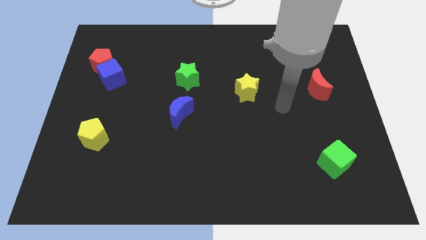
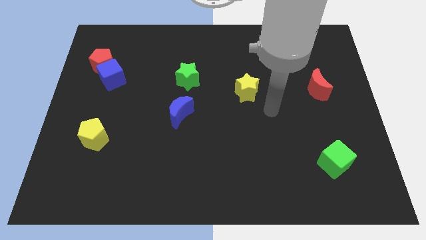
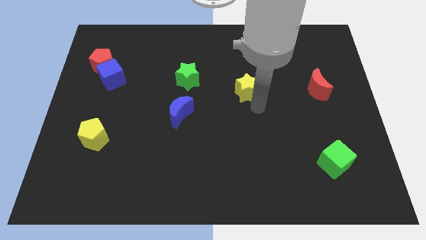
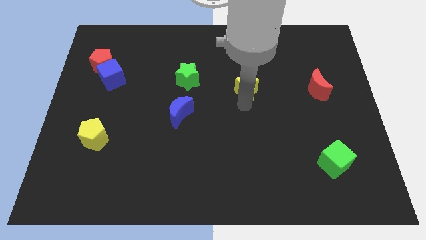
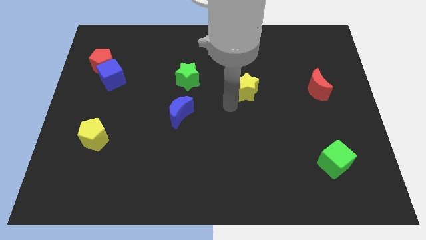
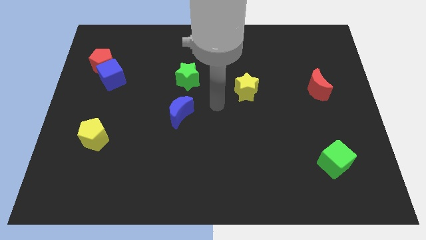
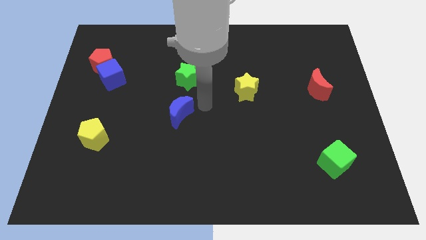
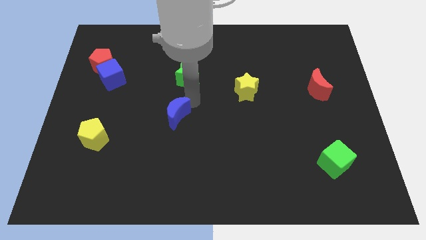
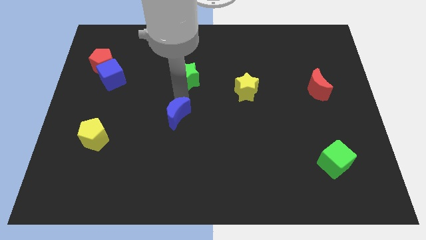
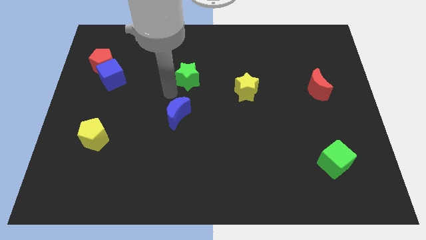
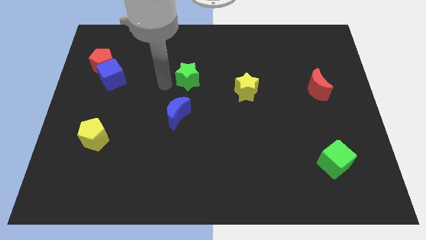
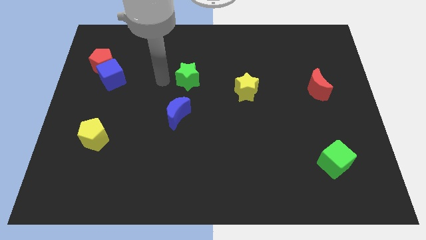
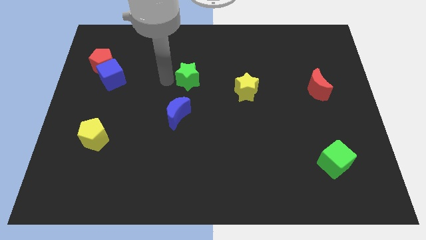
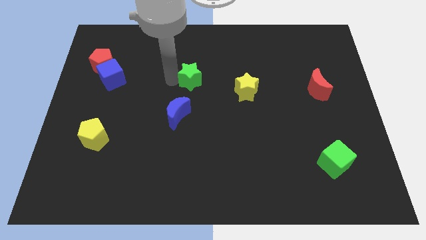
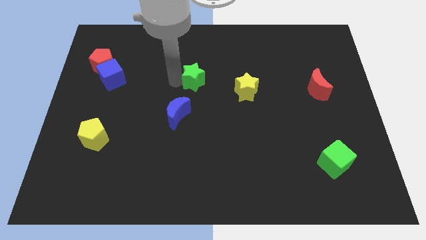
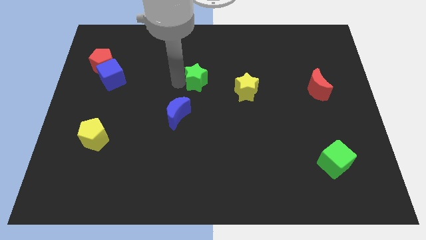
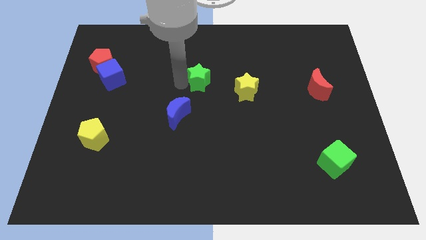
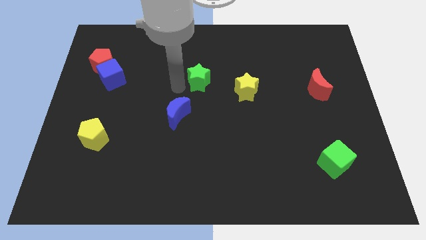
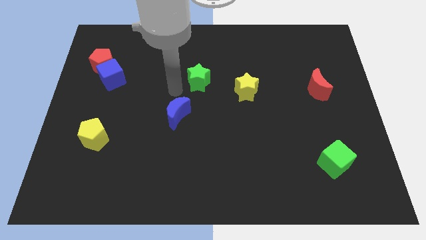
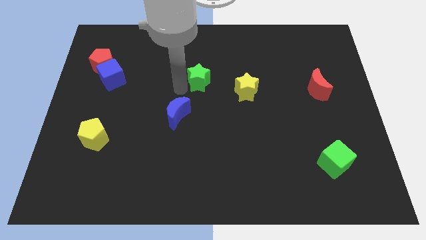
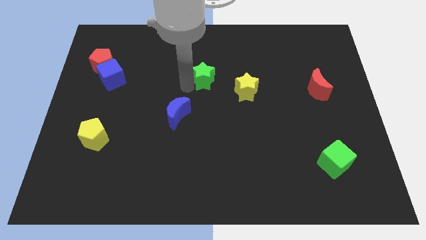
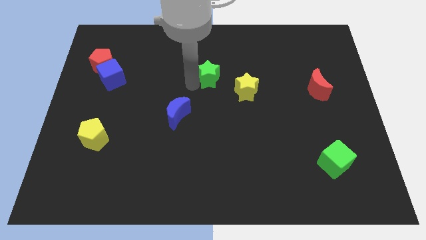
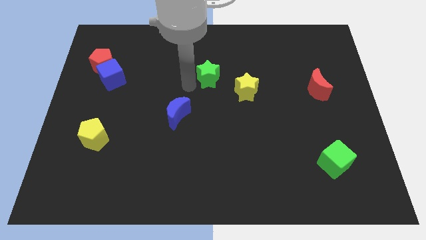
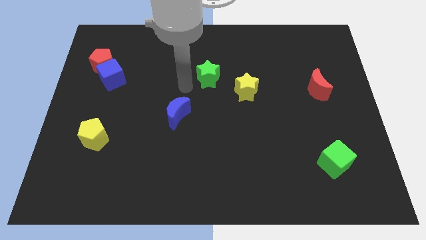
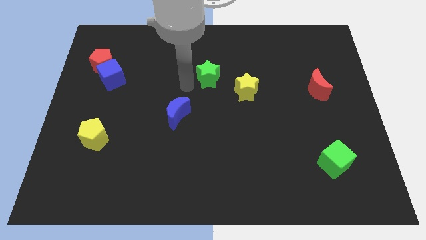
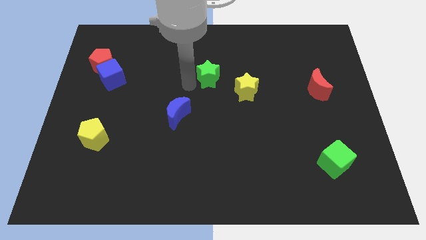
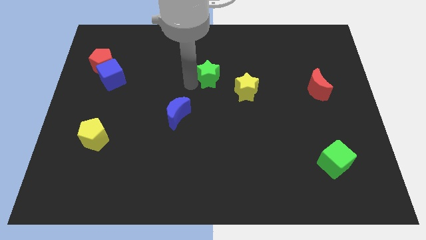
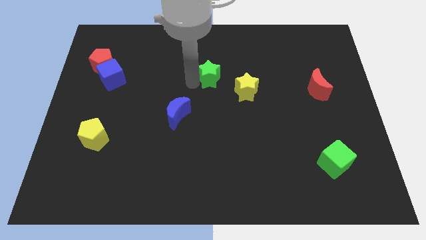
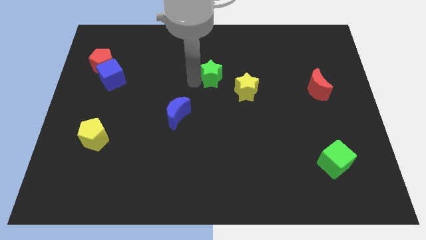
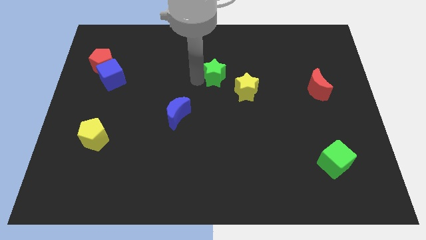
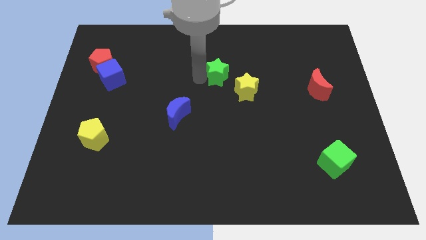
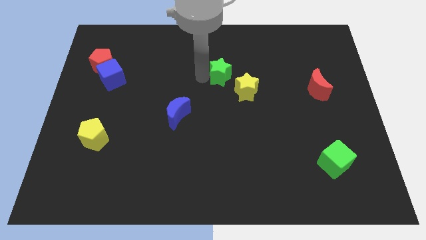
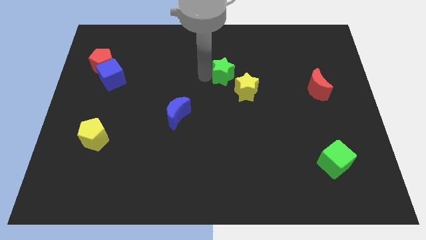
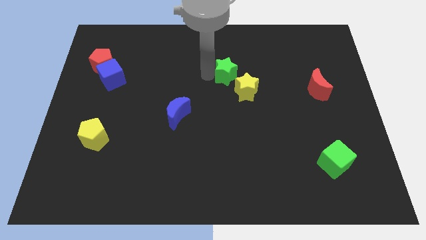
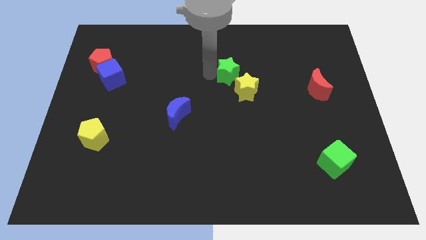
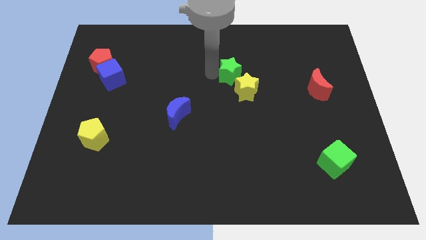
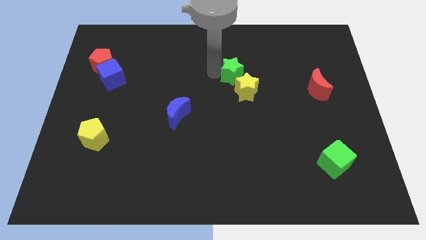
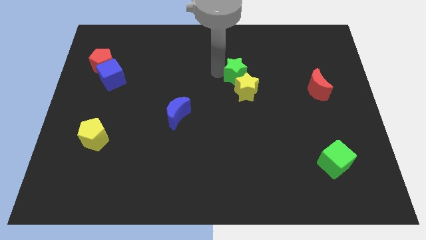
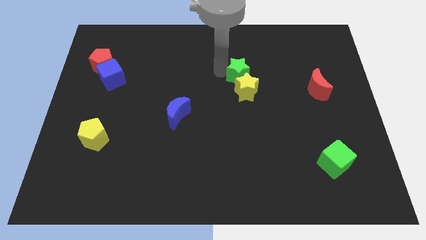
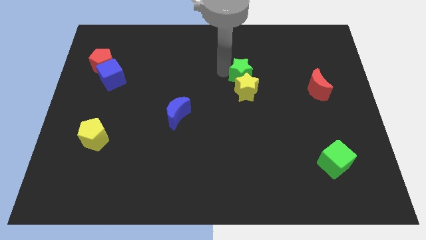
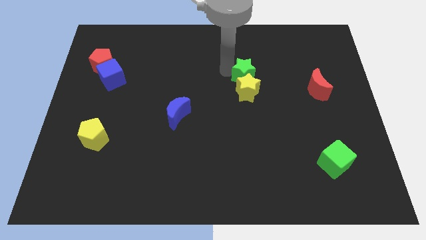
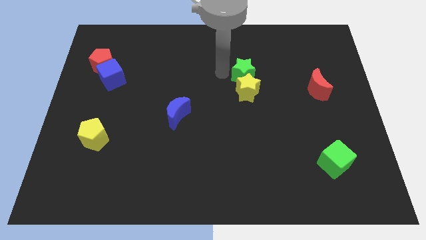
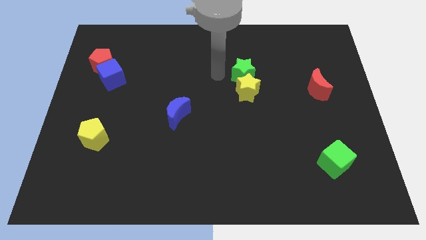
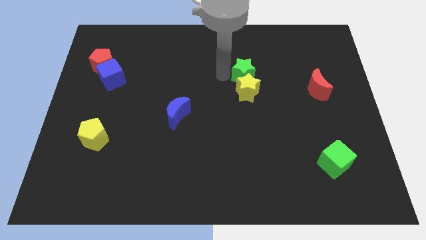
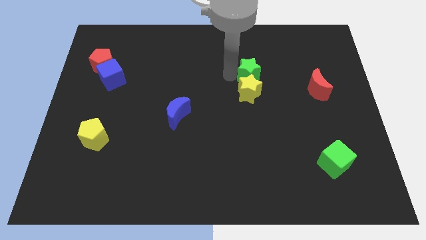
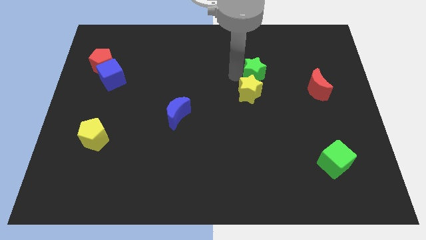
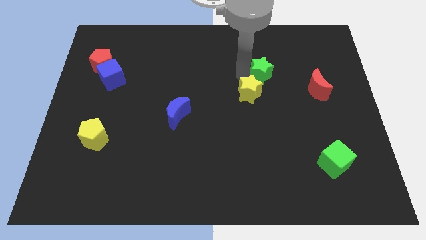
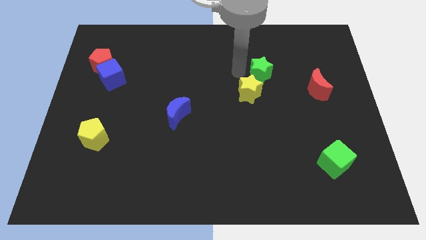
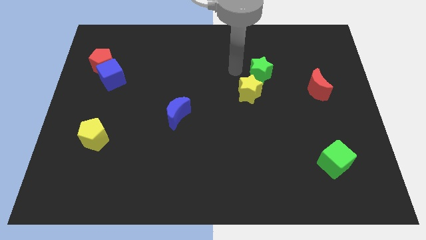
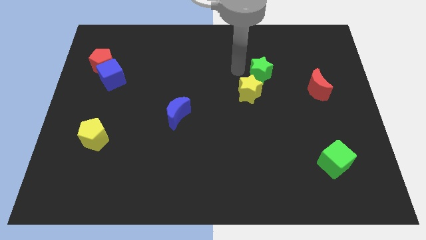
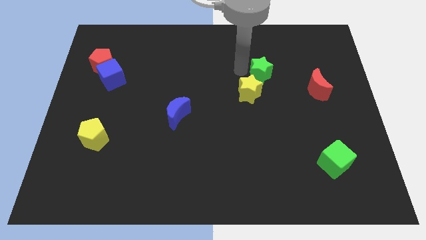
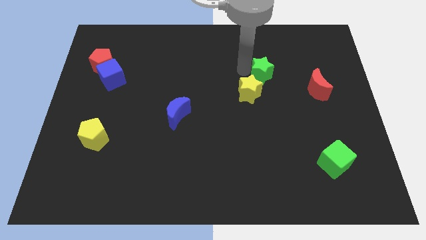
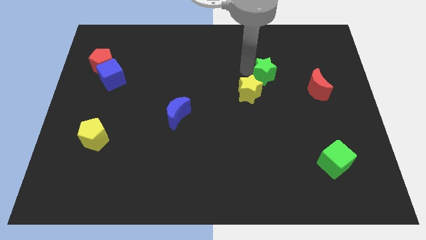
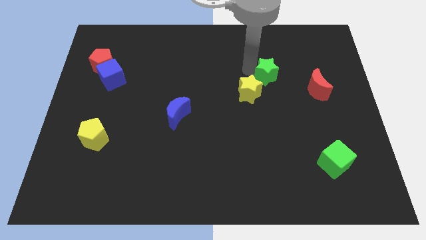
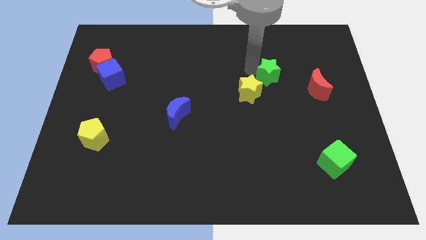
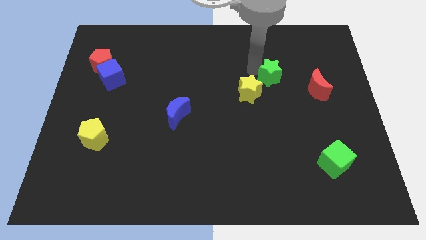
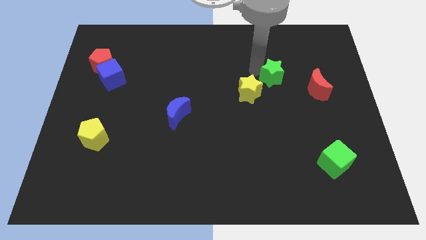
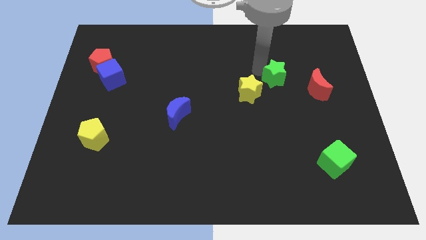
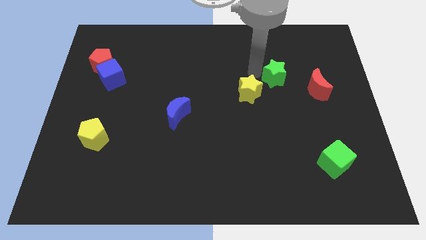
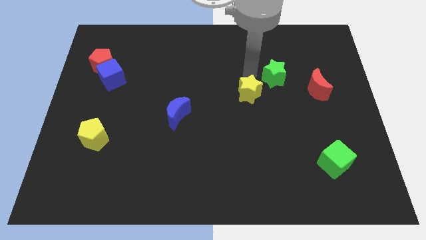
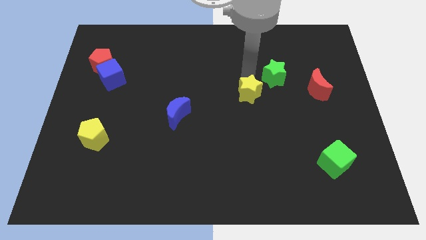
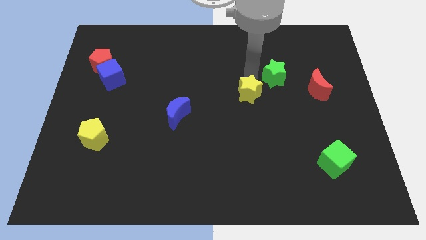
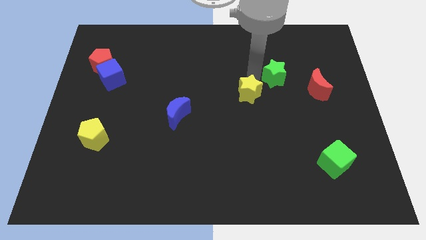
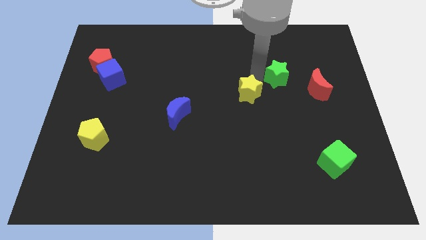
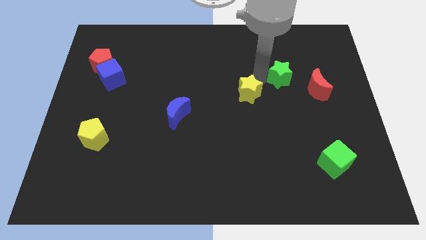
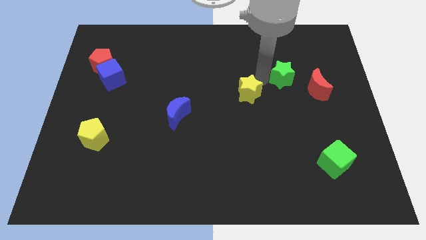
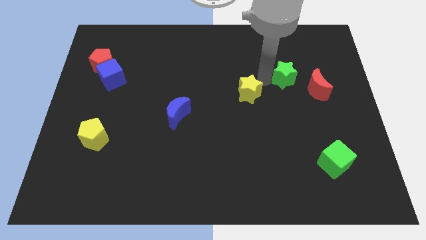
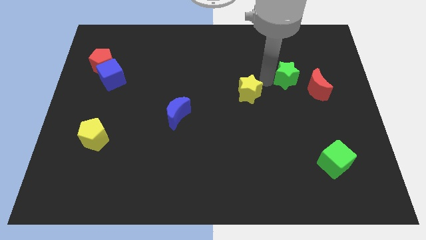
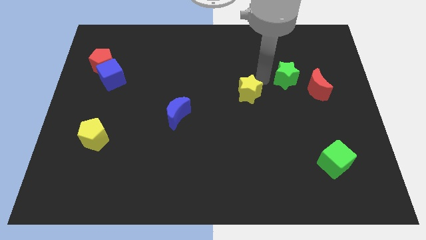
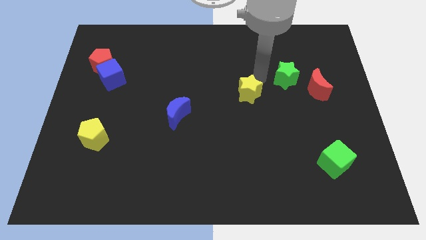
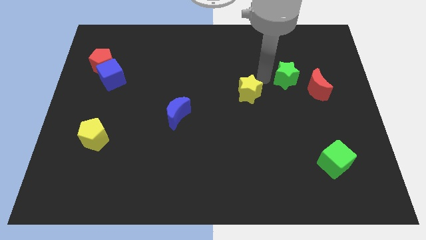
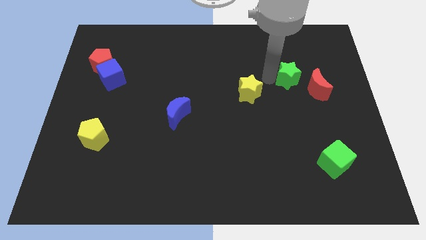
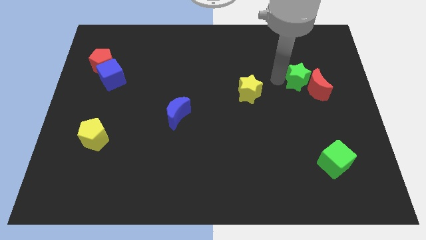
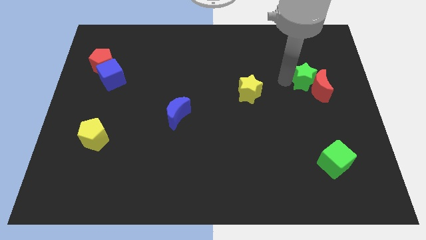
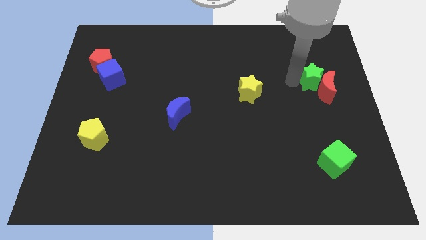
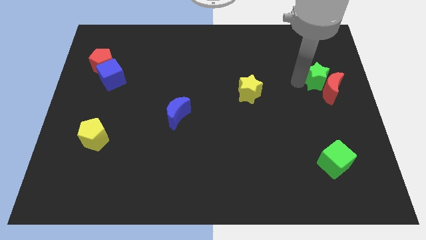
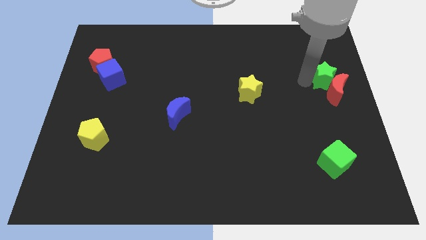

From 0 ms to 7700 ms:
slide the green star to the center right
